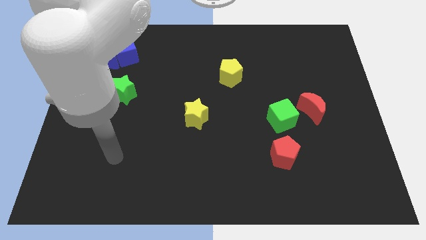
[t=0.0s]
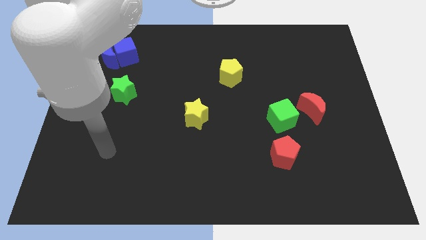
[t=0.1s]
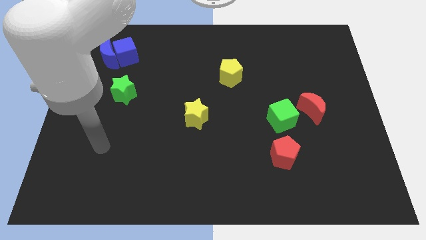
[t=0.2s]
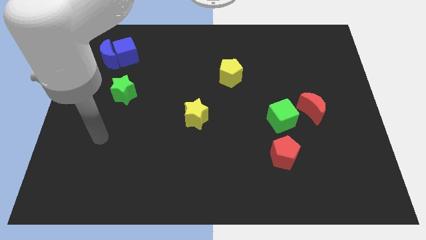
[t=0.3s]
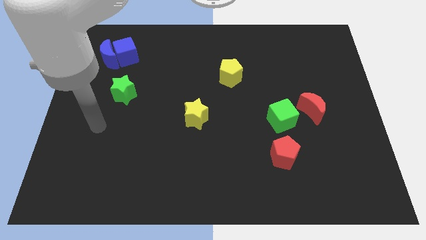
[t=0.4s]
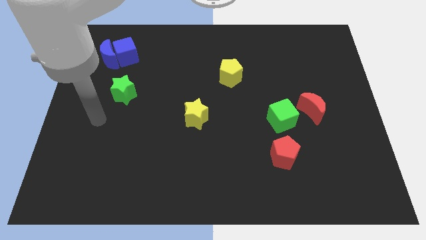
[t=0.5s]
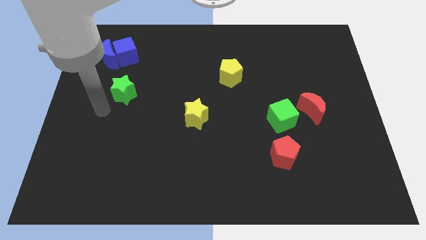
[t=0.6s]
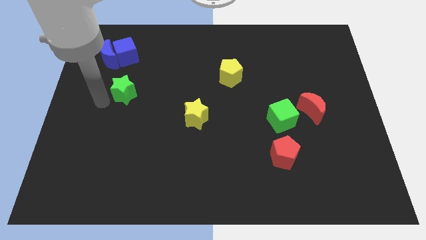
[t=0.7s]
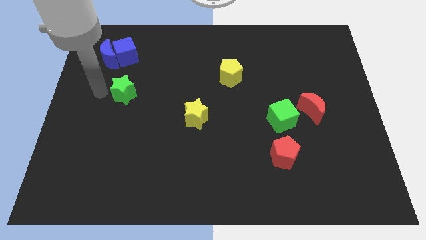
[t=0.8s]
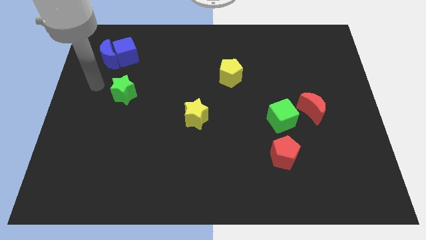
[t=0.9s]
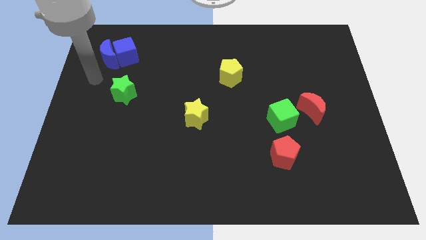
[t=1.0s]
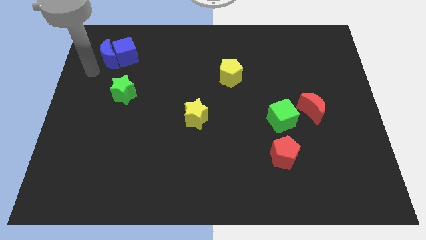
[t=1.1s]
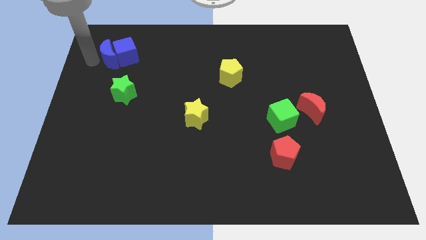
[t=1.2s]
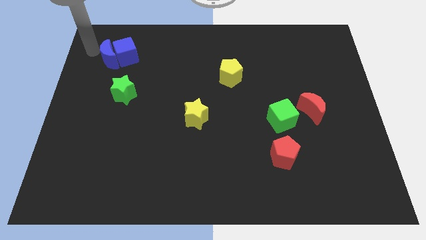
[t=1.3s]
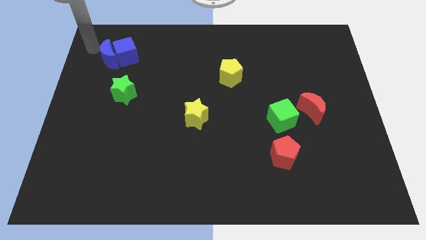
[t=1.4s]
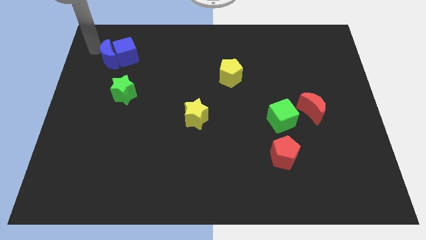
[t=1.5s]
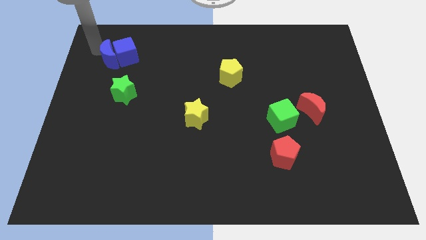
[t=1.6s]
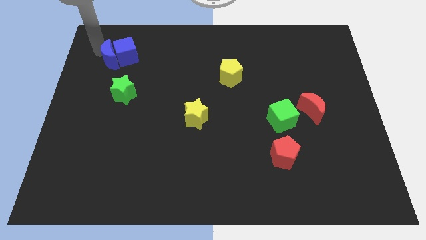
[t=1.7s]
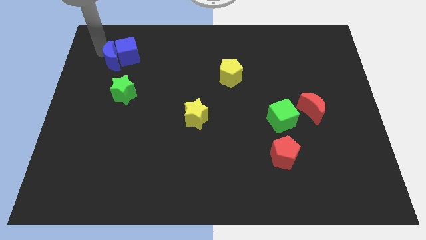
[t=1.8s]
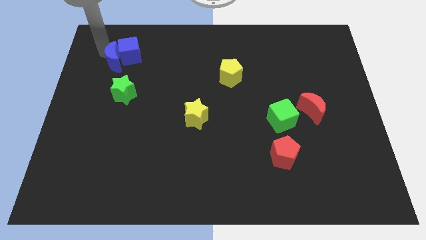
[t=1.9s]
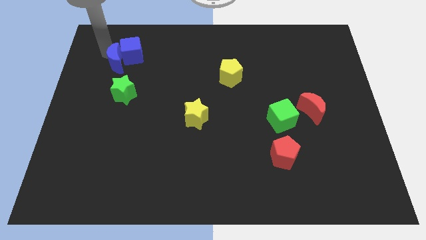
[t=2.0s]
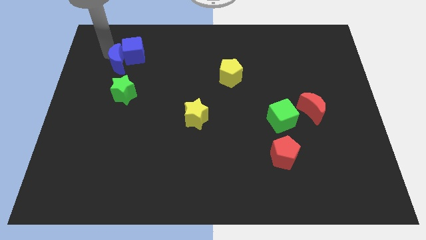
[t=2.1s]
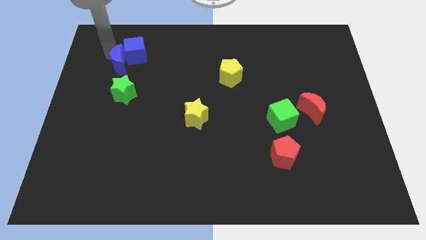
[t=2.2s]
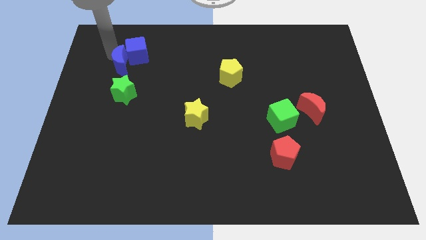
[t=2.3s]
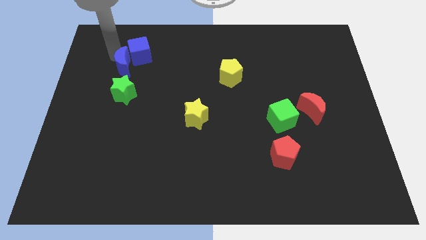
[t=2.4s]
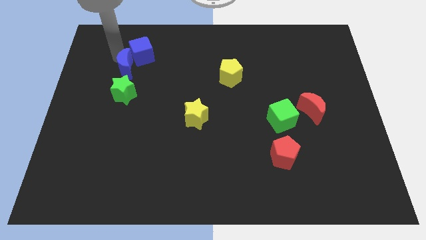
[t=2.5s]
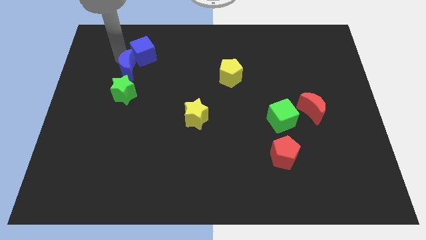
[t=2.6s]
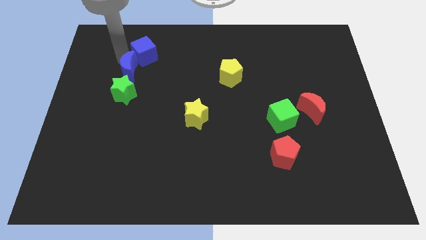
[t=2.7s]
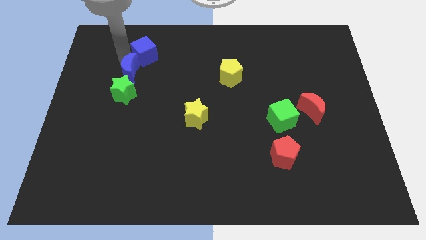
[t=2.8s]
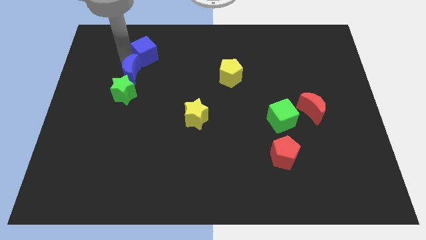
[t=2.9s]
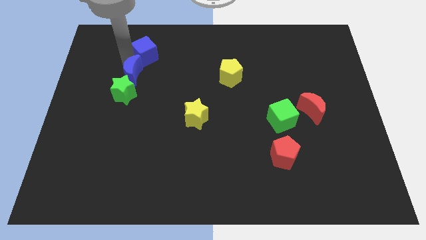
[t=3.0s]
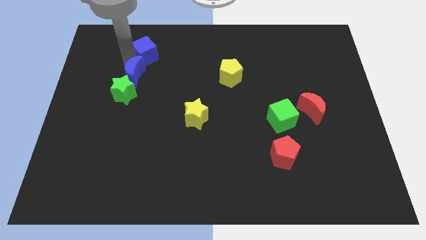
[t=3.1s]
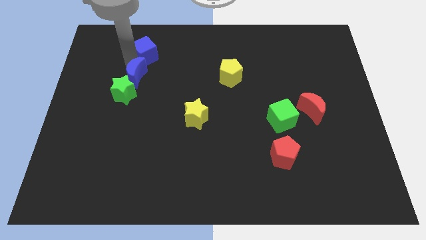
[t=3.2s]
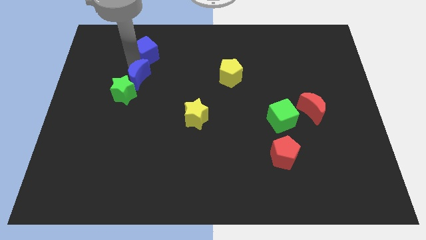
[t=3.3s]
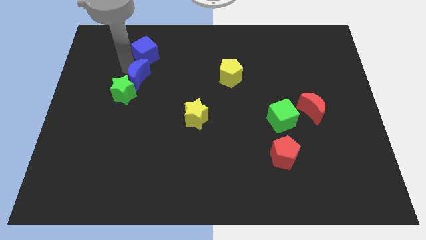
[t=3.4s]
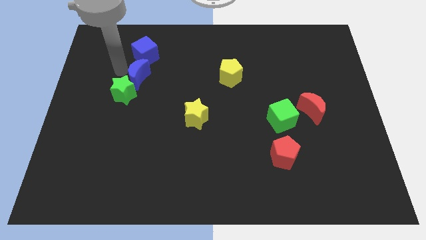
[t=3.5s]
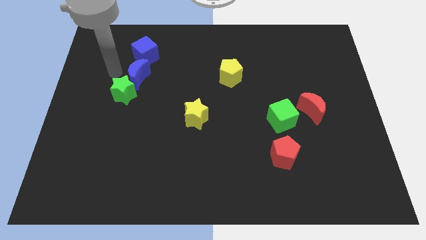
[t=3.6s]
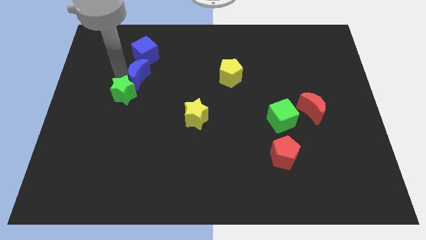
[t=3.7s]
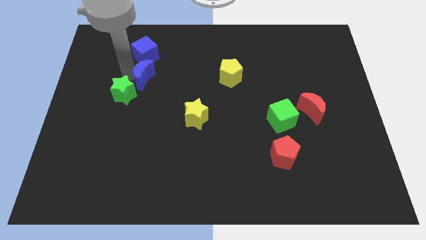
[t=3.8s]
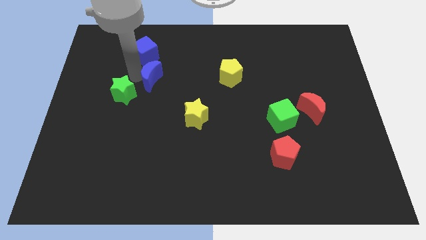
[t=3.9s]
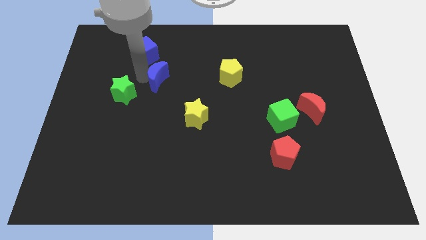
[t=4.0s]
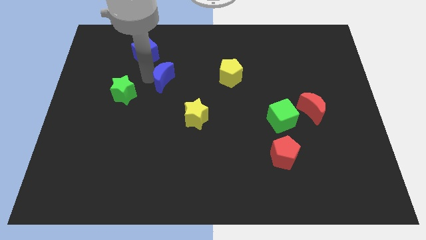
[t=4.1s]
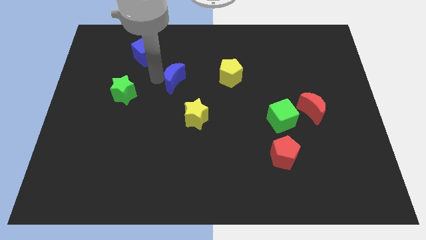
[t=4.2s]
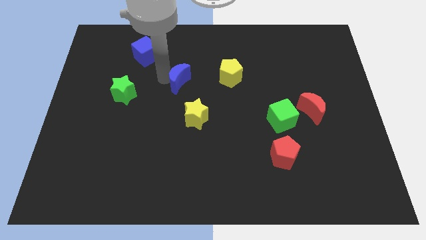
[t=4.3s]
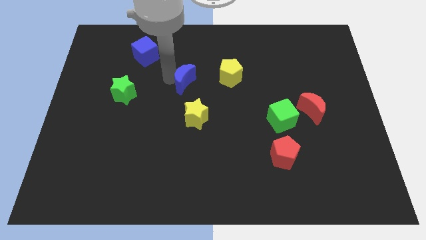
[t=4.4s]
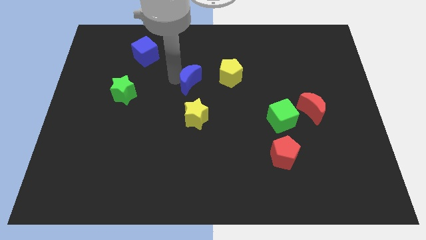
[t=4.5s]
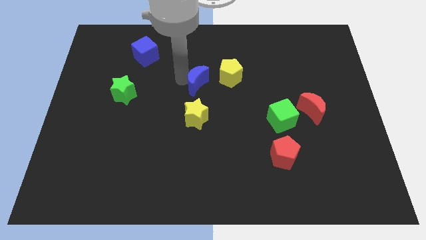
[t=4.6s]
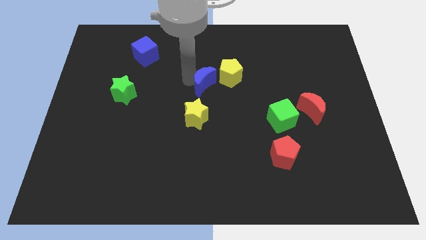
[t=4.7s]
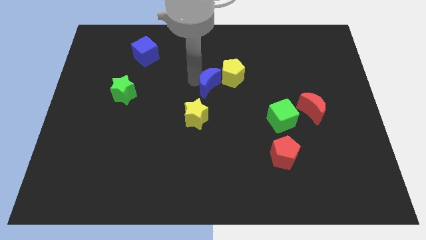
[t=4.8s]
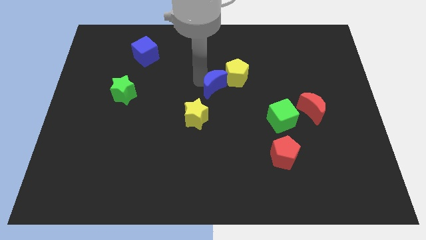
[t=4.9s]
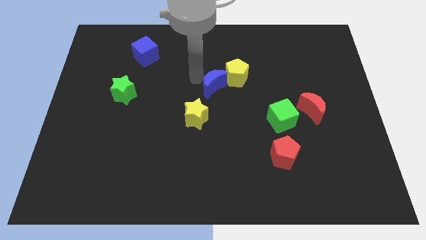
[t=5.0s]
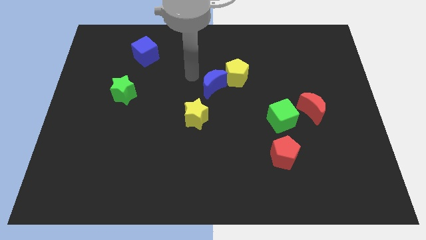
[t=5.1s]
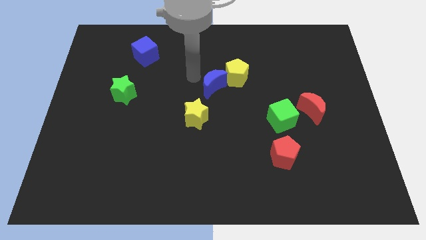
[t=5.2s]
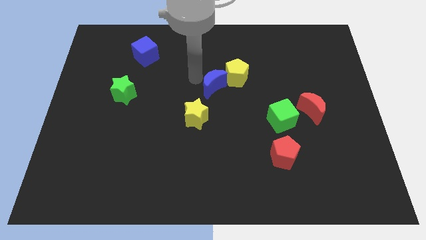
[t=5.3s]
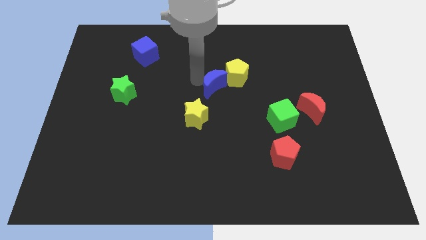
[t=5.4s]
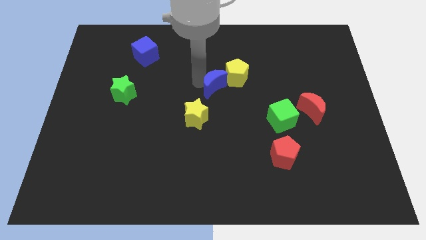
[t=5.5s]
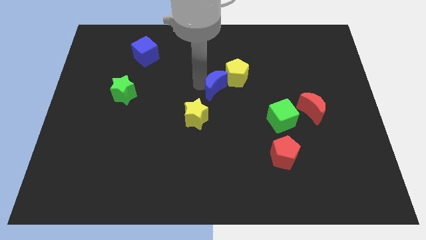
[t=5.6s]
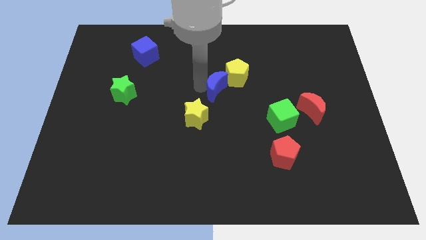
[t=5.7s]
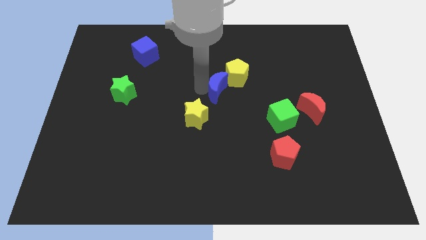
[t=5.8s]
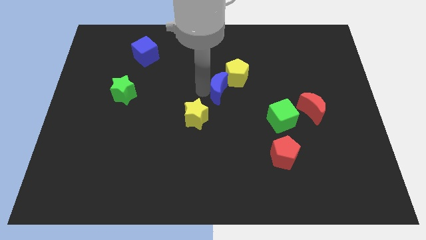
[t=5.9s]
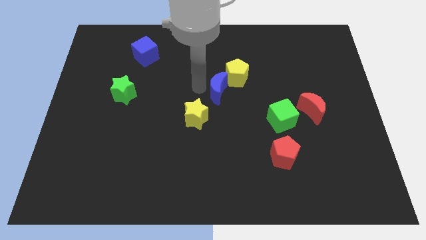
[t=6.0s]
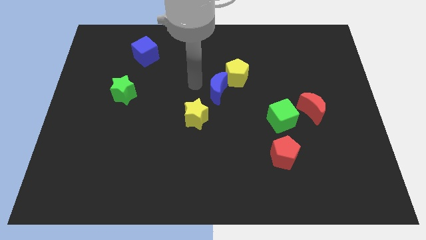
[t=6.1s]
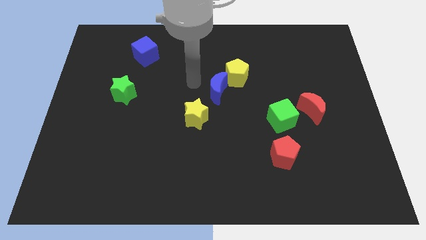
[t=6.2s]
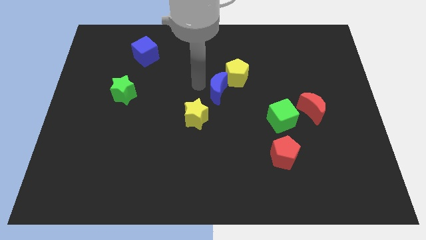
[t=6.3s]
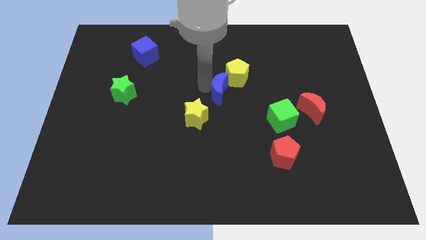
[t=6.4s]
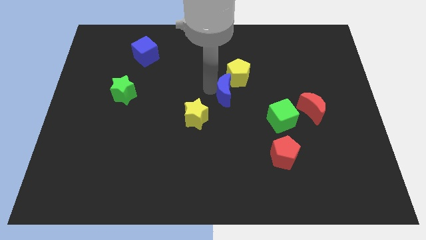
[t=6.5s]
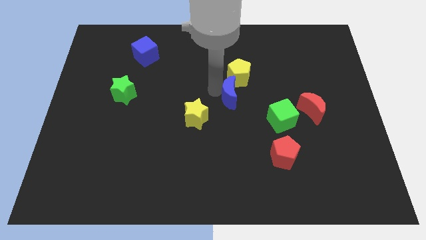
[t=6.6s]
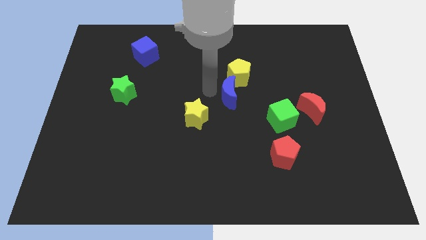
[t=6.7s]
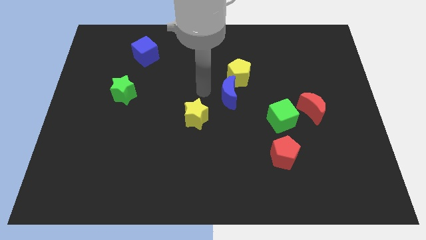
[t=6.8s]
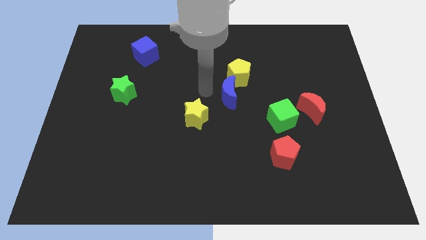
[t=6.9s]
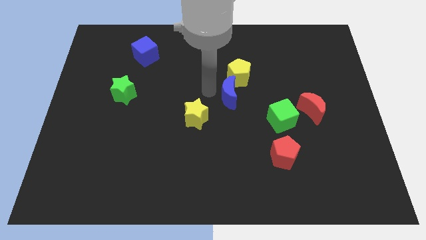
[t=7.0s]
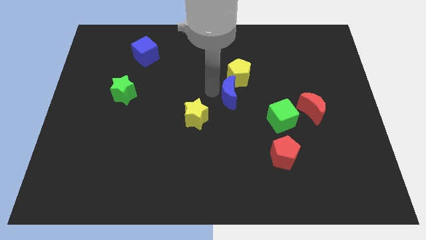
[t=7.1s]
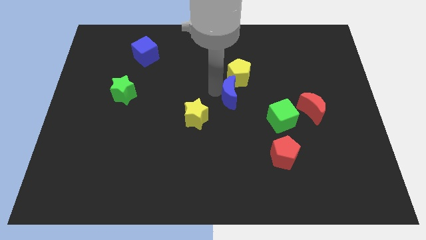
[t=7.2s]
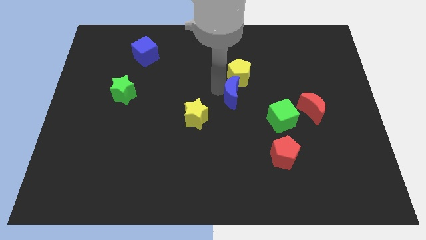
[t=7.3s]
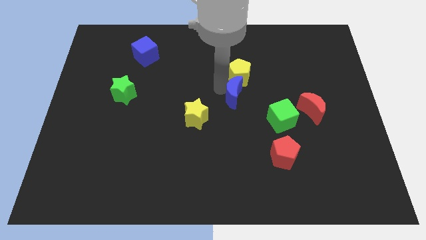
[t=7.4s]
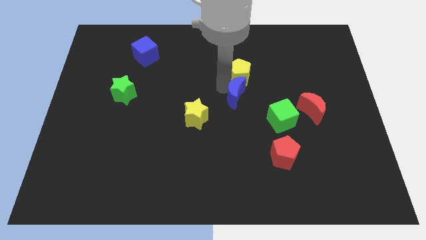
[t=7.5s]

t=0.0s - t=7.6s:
put the blue moon to the top left of the green cube
